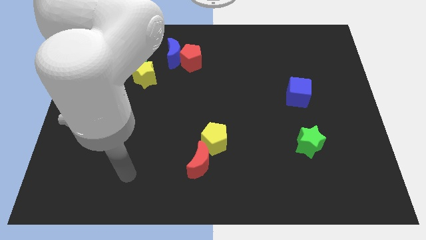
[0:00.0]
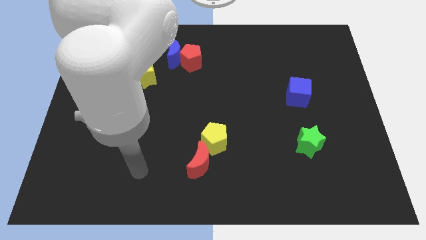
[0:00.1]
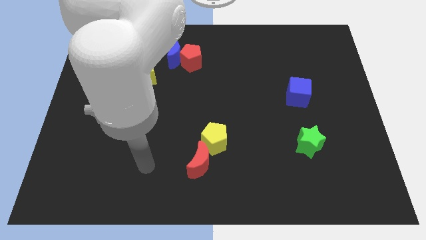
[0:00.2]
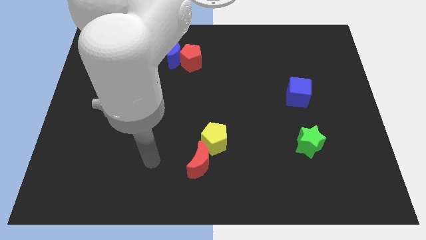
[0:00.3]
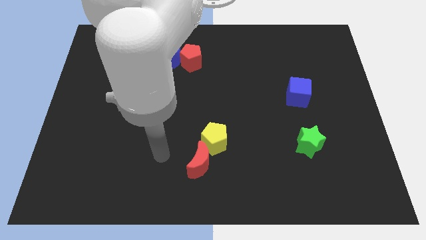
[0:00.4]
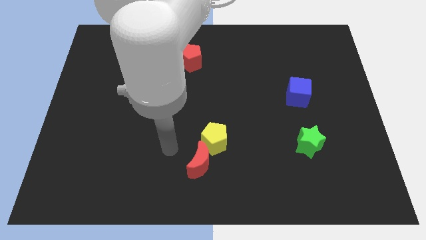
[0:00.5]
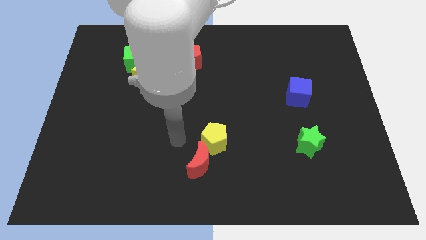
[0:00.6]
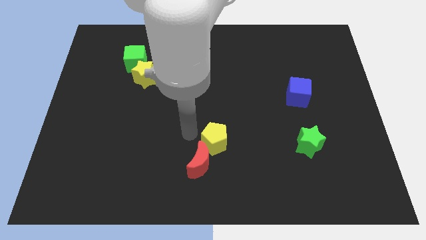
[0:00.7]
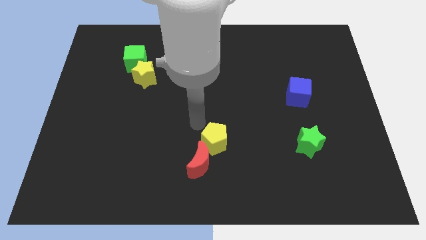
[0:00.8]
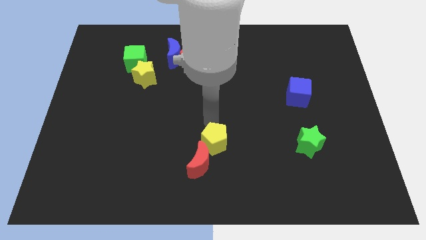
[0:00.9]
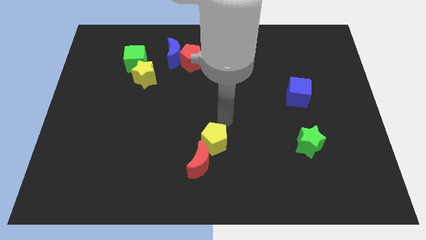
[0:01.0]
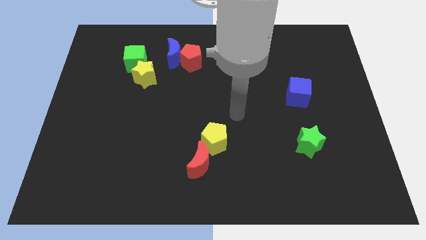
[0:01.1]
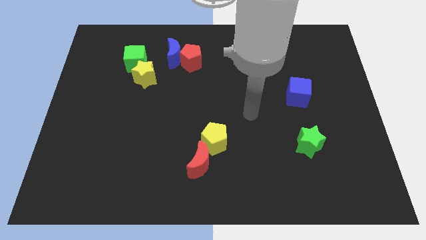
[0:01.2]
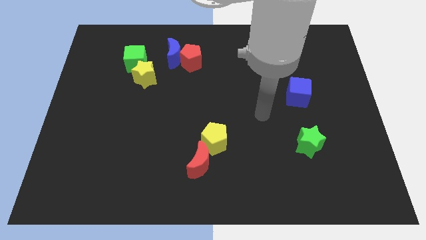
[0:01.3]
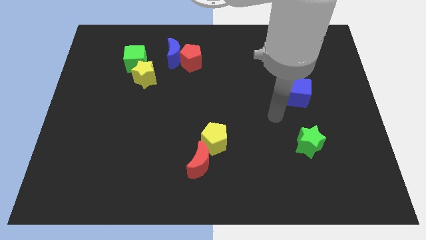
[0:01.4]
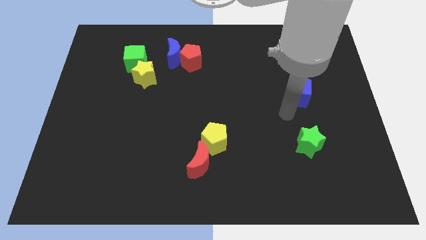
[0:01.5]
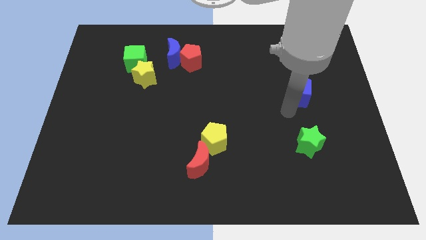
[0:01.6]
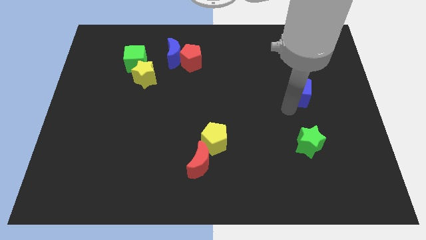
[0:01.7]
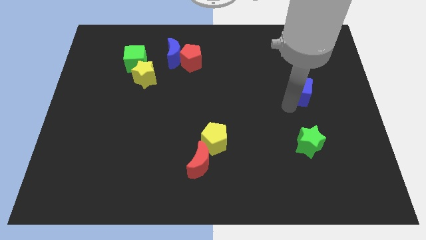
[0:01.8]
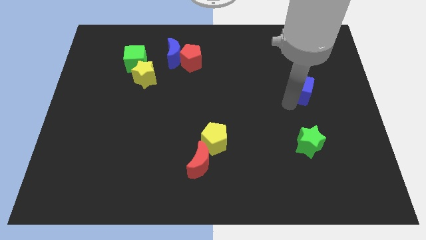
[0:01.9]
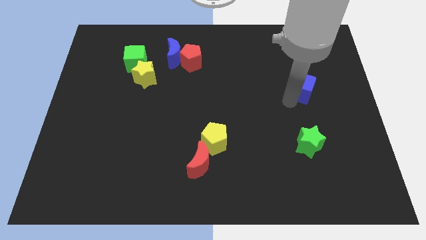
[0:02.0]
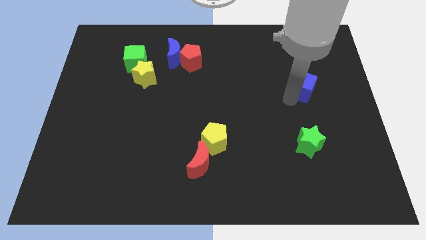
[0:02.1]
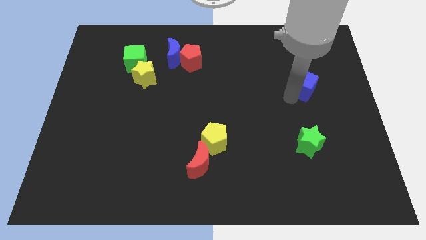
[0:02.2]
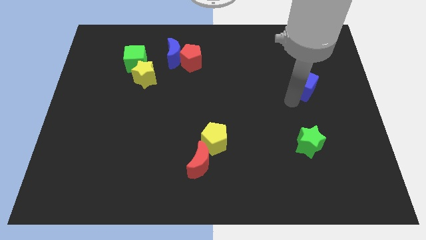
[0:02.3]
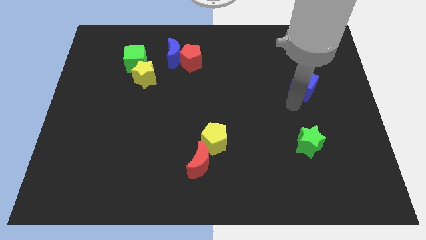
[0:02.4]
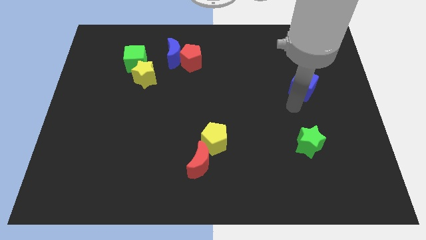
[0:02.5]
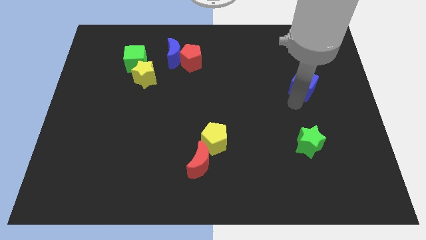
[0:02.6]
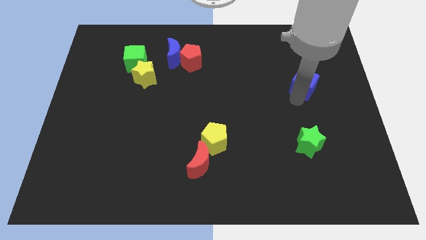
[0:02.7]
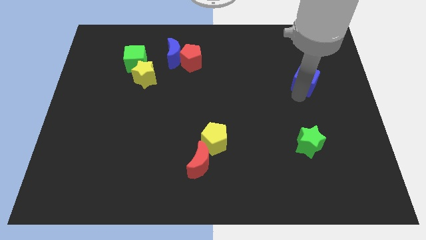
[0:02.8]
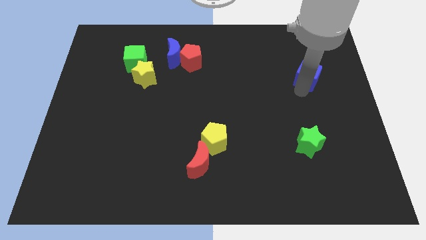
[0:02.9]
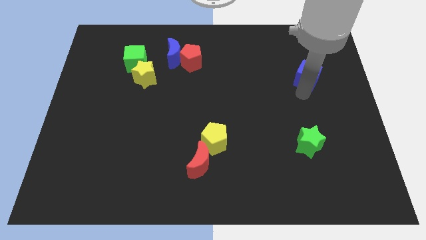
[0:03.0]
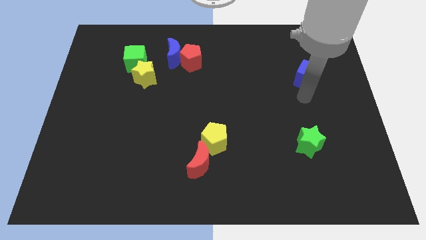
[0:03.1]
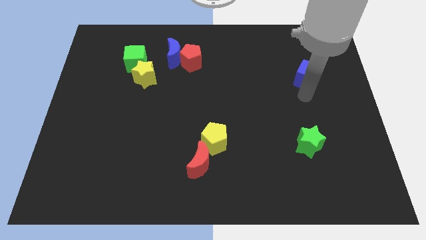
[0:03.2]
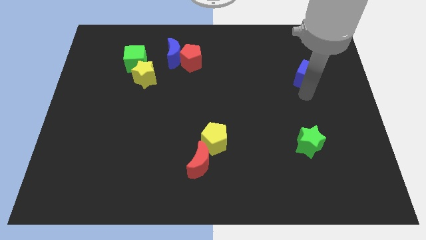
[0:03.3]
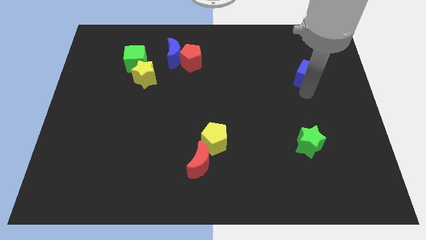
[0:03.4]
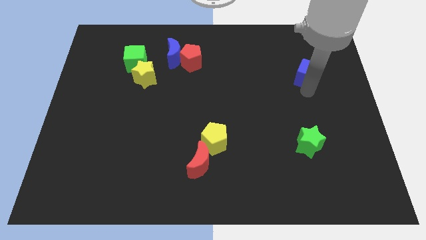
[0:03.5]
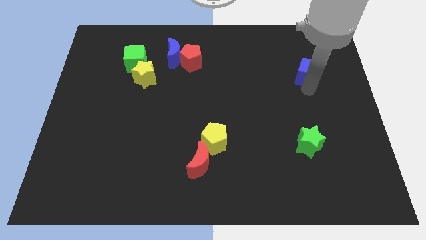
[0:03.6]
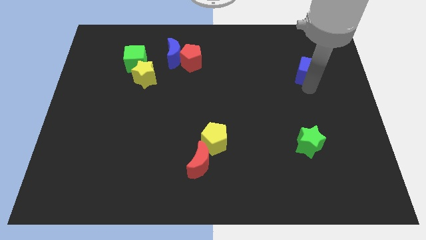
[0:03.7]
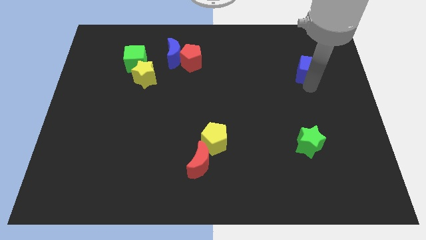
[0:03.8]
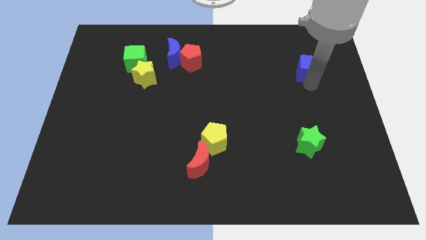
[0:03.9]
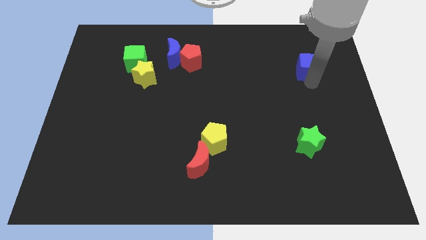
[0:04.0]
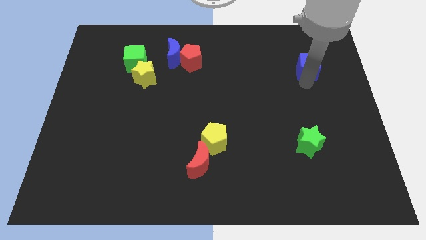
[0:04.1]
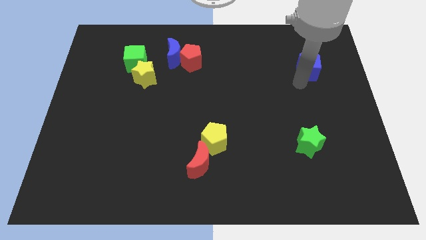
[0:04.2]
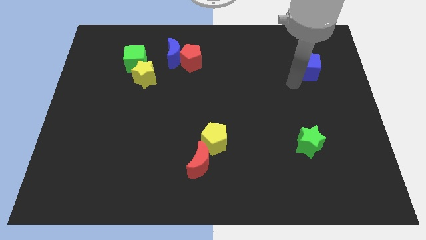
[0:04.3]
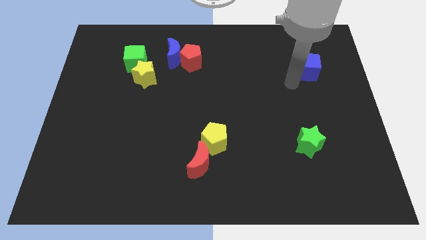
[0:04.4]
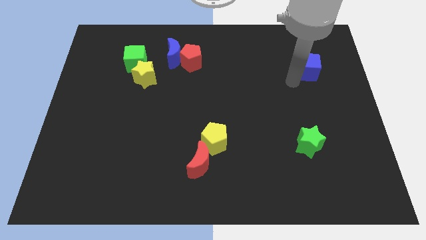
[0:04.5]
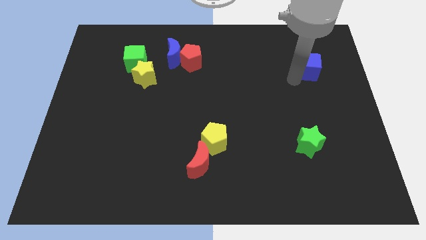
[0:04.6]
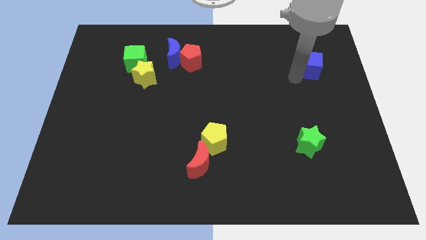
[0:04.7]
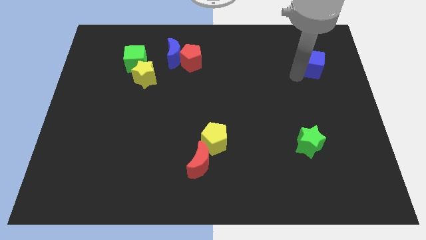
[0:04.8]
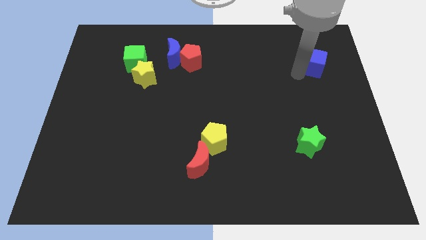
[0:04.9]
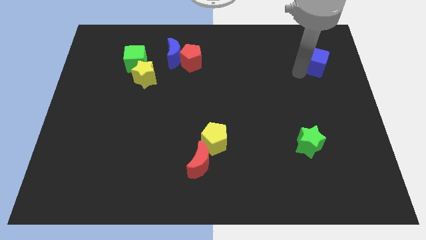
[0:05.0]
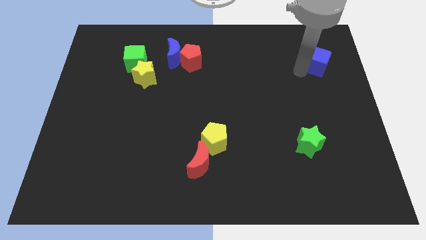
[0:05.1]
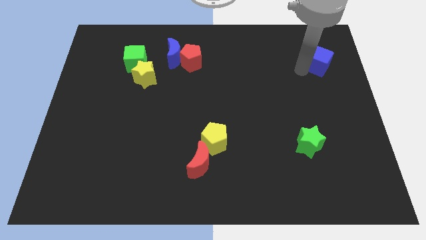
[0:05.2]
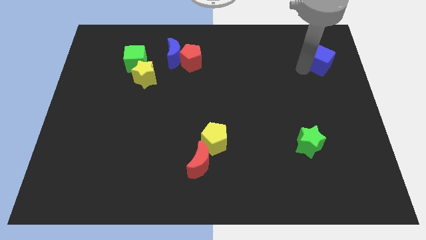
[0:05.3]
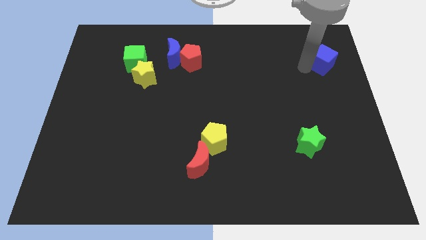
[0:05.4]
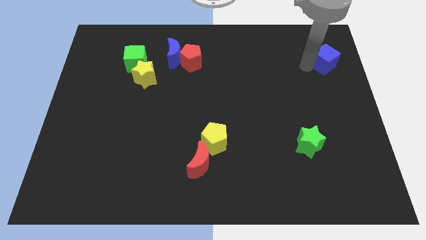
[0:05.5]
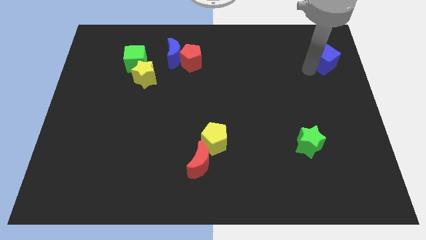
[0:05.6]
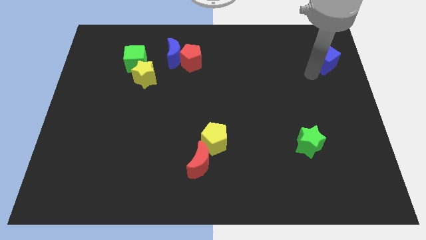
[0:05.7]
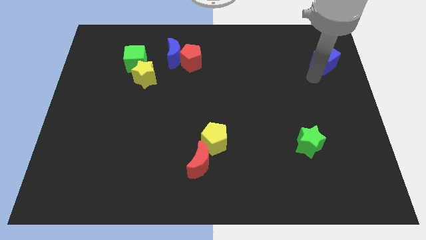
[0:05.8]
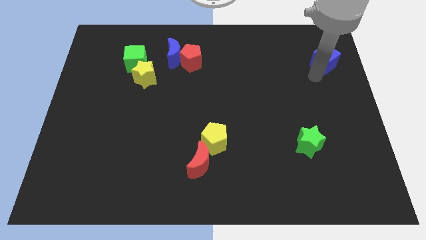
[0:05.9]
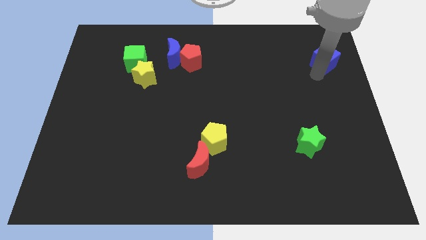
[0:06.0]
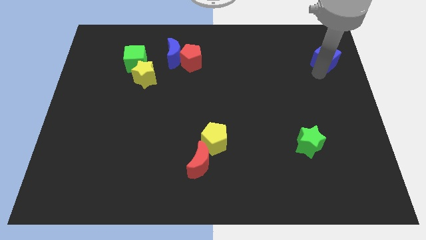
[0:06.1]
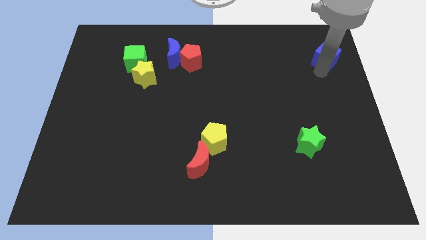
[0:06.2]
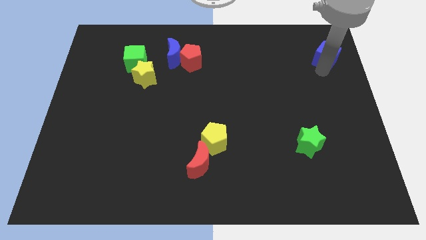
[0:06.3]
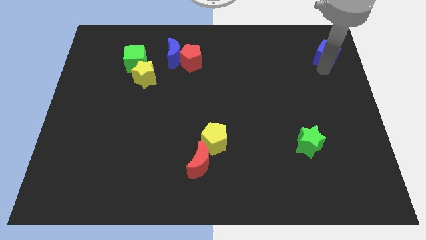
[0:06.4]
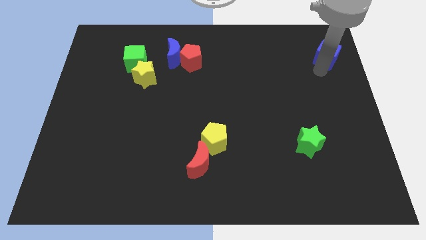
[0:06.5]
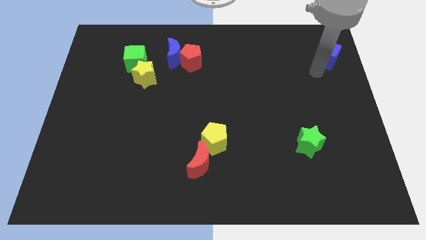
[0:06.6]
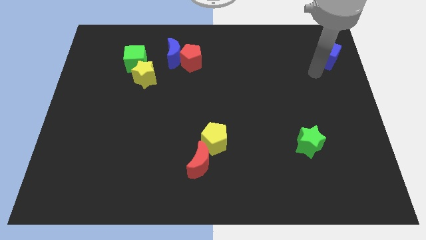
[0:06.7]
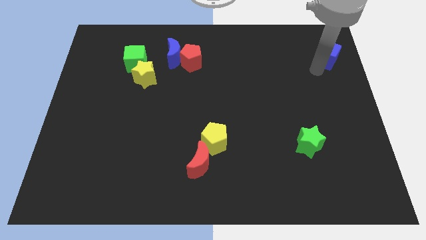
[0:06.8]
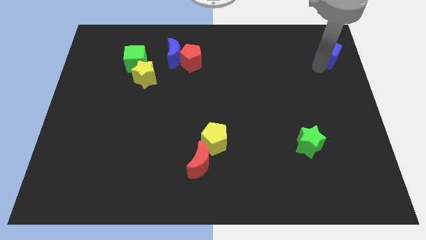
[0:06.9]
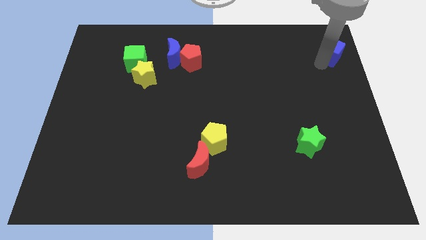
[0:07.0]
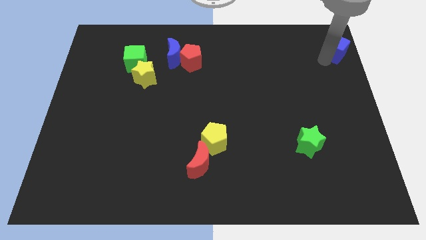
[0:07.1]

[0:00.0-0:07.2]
put the blue cube to the top right
